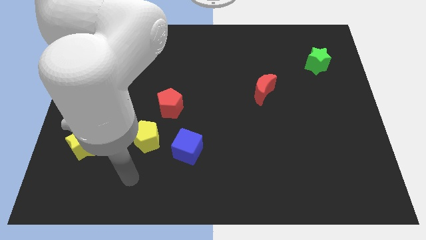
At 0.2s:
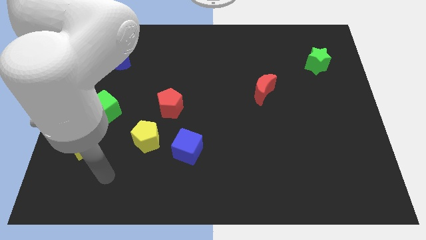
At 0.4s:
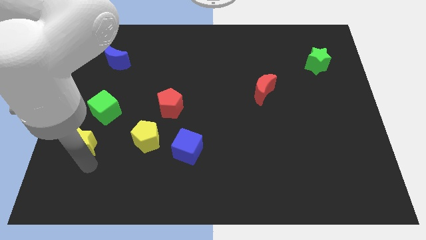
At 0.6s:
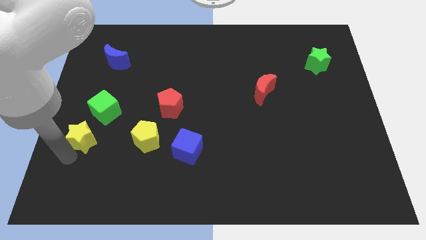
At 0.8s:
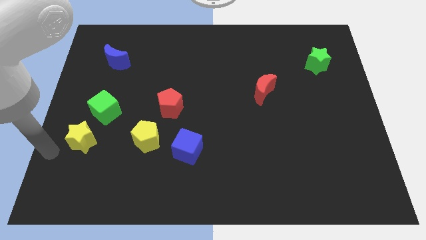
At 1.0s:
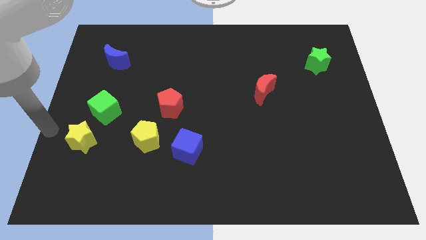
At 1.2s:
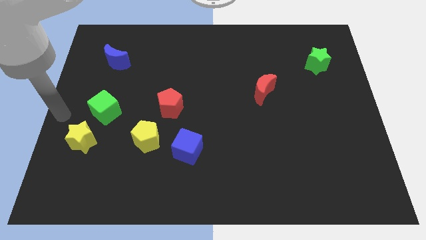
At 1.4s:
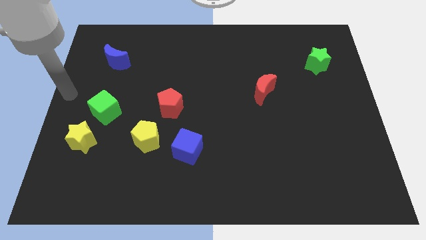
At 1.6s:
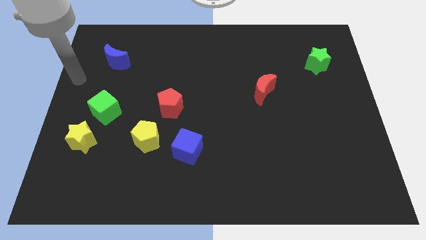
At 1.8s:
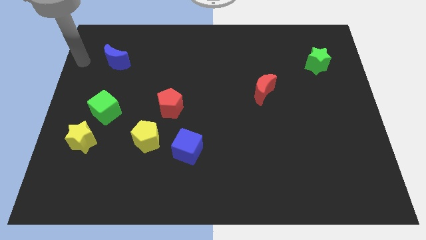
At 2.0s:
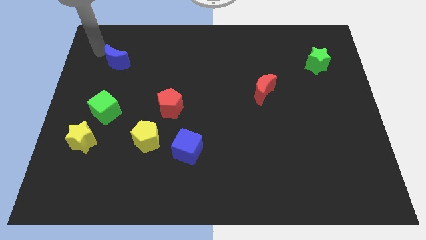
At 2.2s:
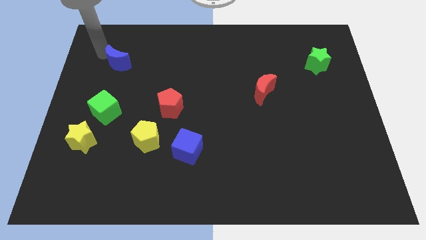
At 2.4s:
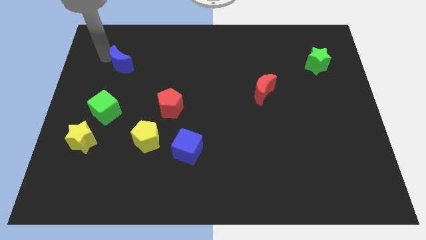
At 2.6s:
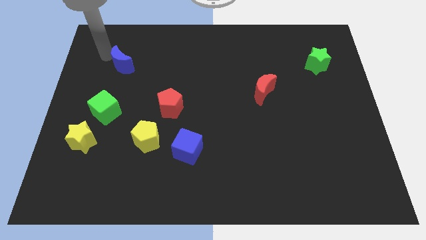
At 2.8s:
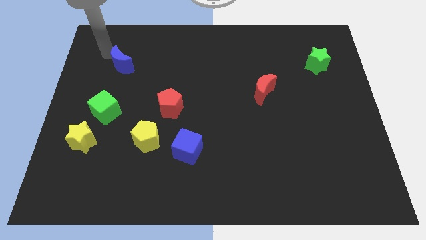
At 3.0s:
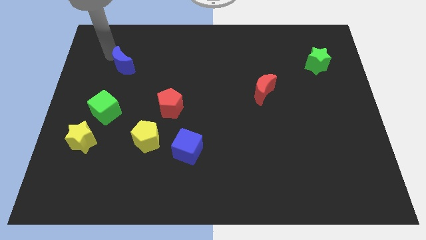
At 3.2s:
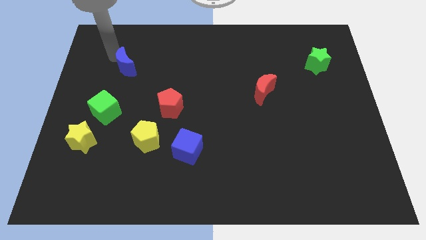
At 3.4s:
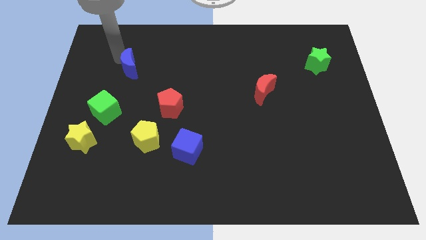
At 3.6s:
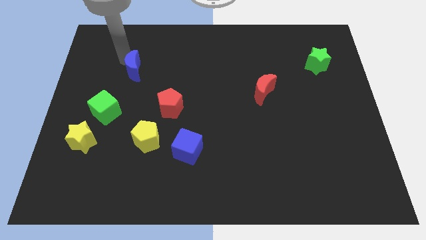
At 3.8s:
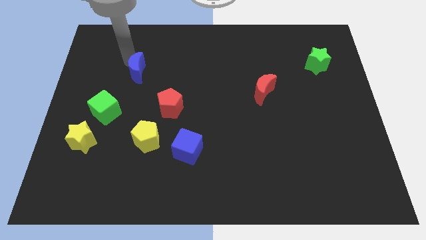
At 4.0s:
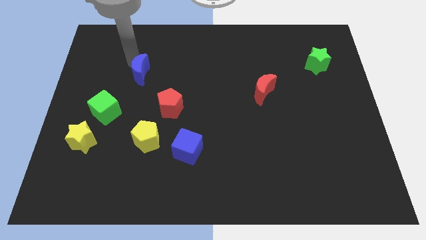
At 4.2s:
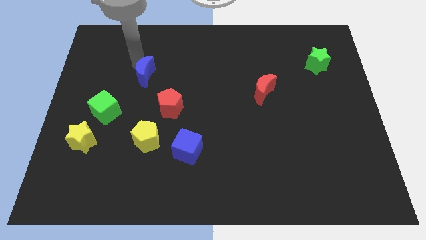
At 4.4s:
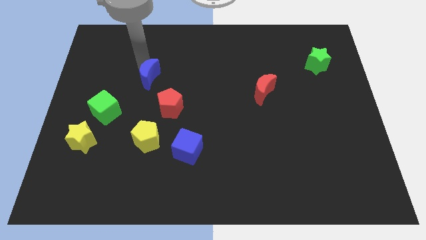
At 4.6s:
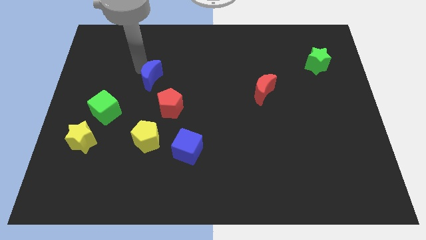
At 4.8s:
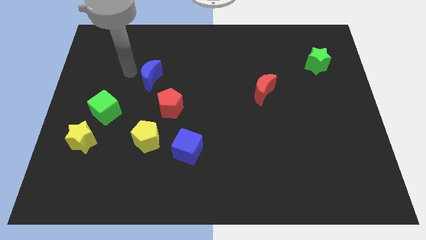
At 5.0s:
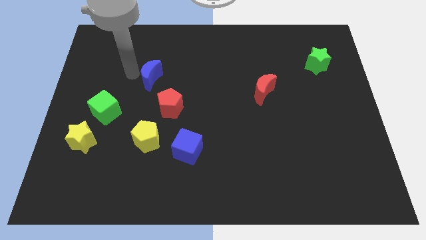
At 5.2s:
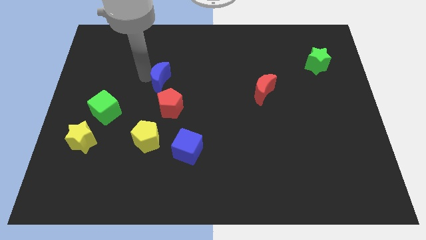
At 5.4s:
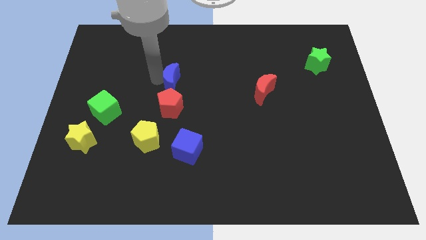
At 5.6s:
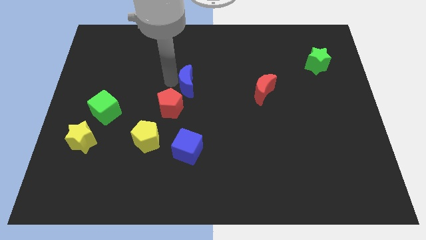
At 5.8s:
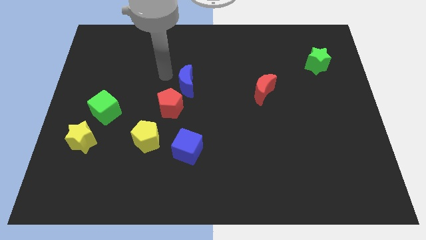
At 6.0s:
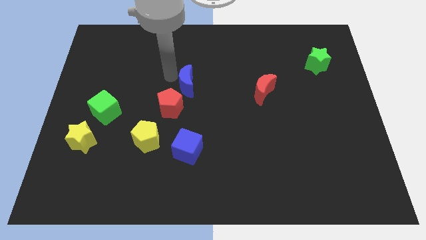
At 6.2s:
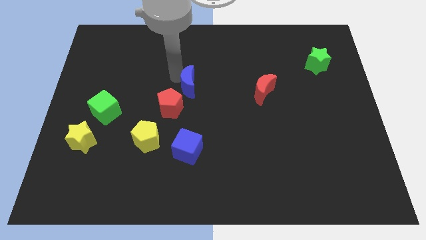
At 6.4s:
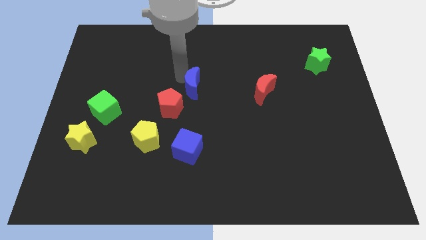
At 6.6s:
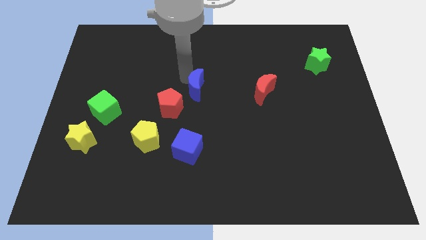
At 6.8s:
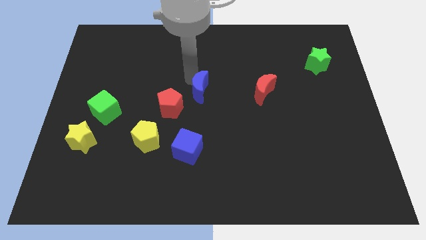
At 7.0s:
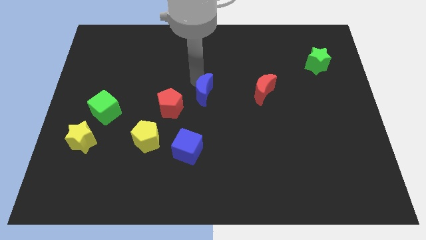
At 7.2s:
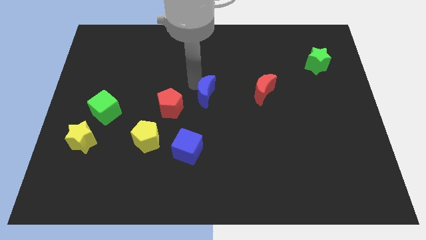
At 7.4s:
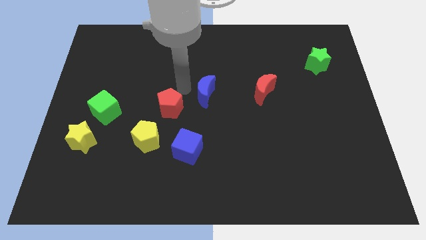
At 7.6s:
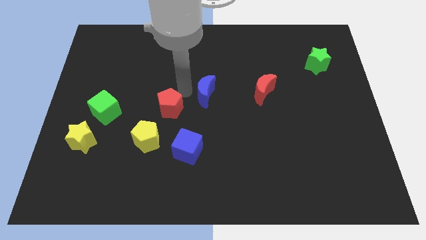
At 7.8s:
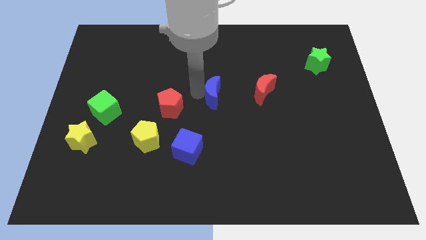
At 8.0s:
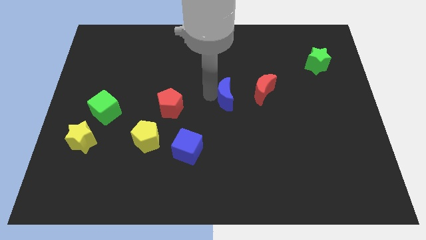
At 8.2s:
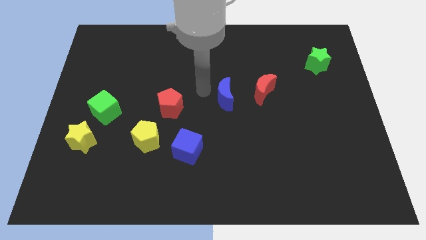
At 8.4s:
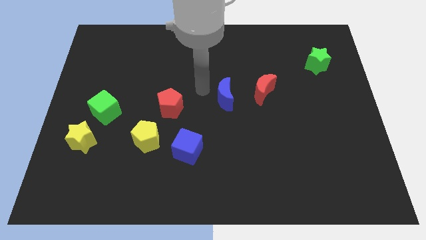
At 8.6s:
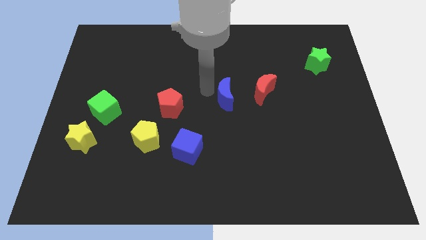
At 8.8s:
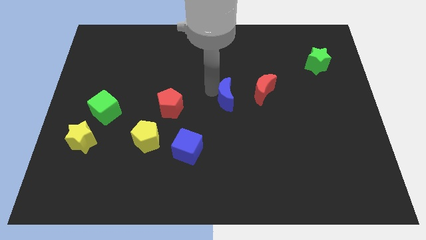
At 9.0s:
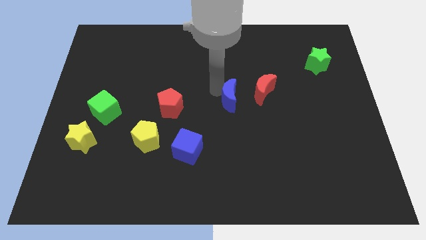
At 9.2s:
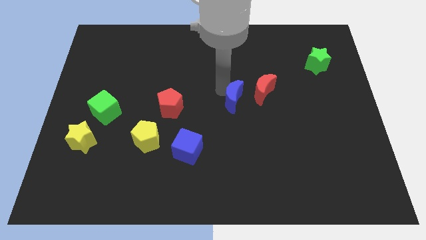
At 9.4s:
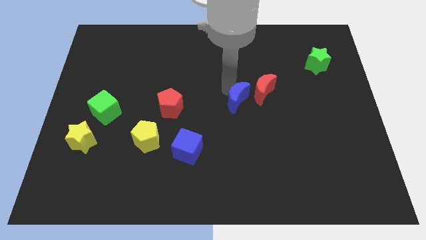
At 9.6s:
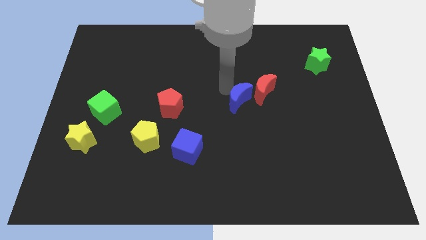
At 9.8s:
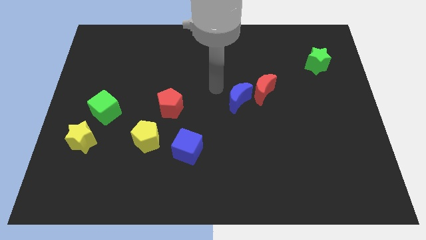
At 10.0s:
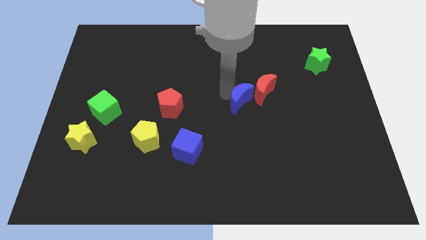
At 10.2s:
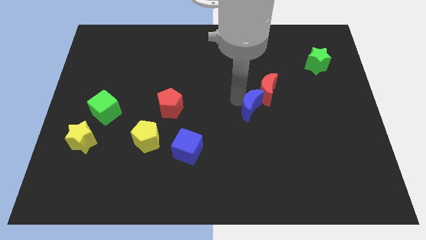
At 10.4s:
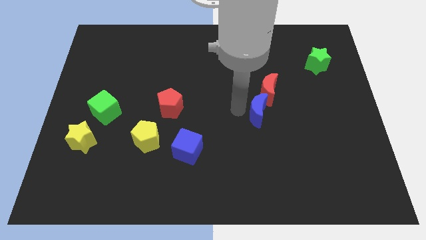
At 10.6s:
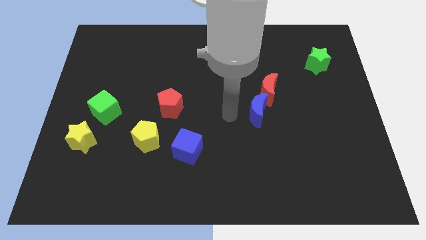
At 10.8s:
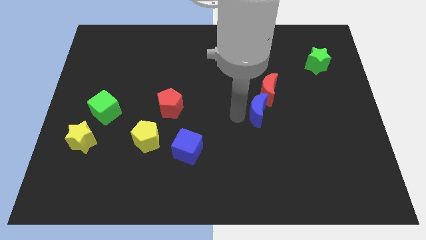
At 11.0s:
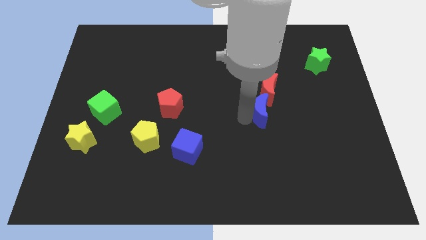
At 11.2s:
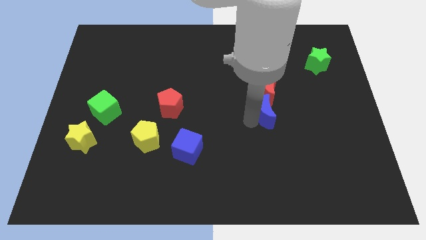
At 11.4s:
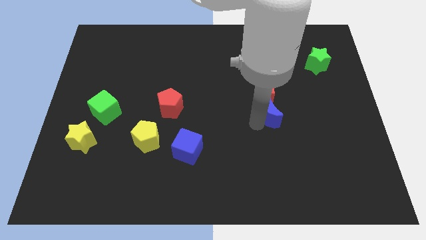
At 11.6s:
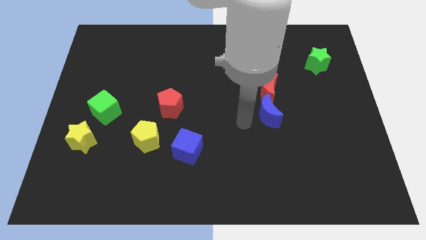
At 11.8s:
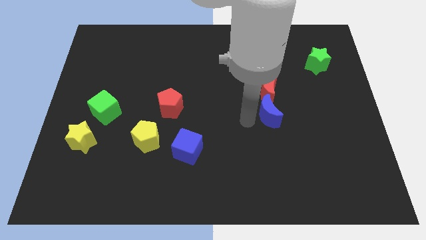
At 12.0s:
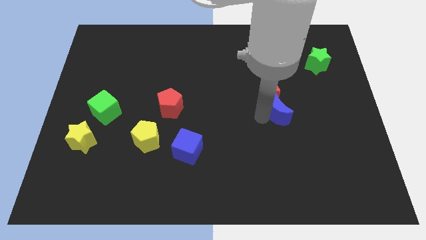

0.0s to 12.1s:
slide the blue moon to the bottom right side of the red moon

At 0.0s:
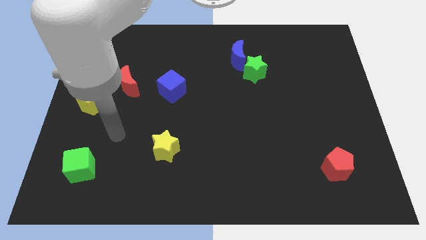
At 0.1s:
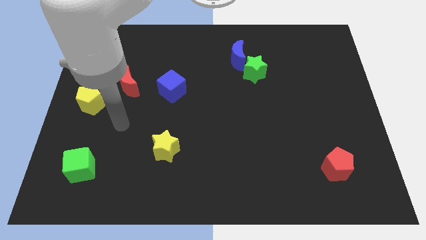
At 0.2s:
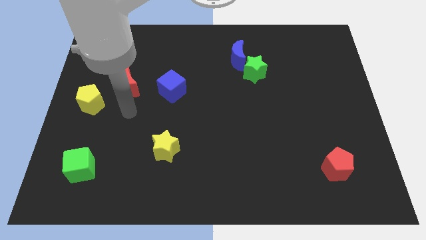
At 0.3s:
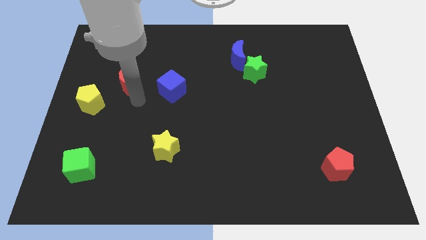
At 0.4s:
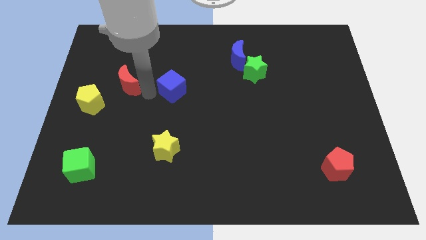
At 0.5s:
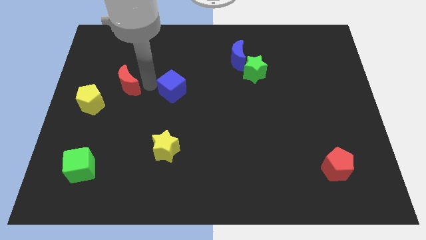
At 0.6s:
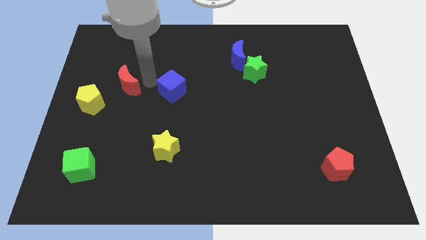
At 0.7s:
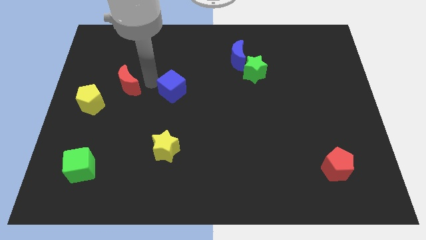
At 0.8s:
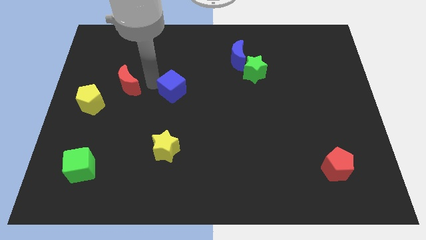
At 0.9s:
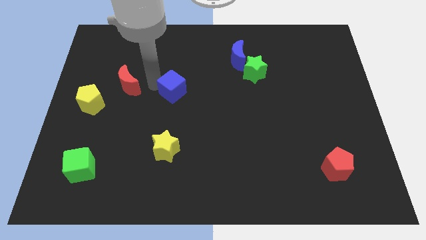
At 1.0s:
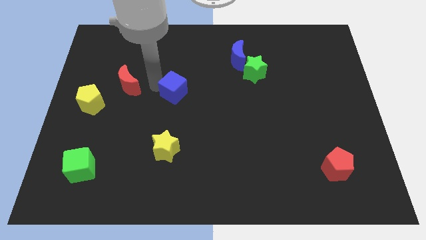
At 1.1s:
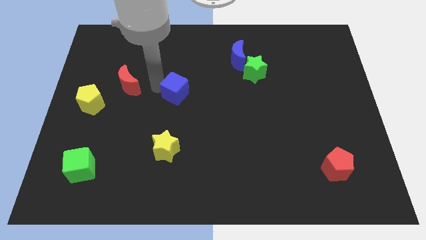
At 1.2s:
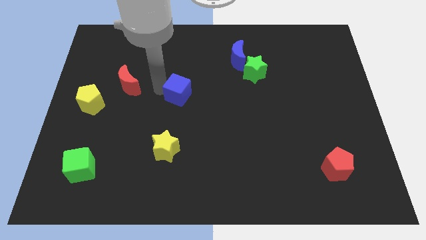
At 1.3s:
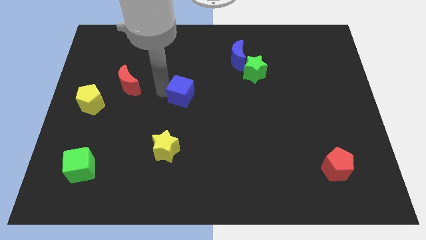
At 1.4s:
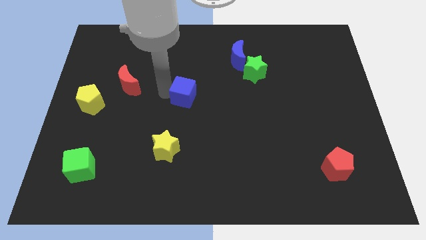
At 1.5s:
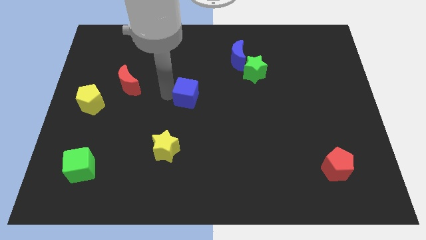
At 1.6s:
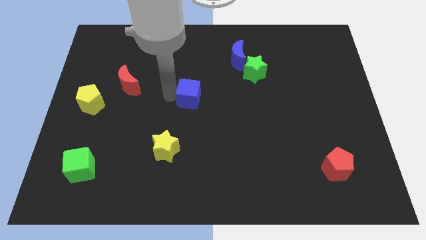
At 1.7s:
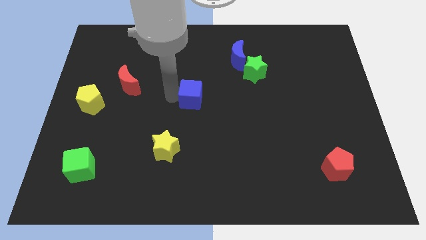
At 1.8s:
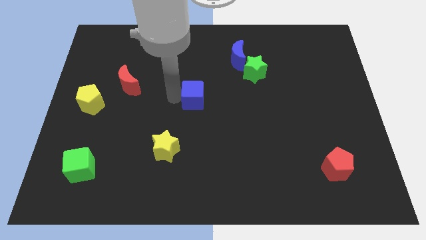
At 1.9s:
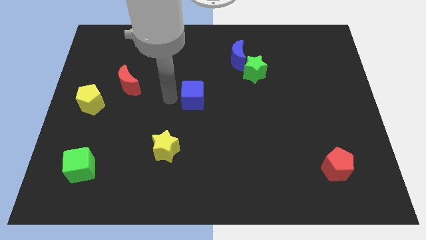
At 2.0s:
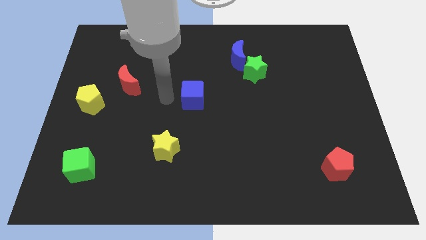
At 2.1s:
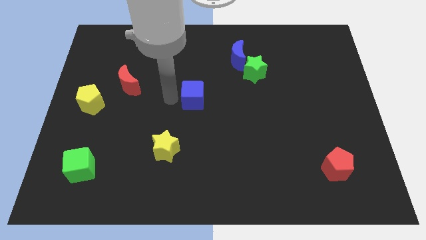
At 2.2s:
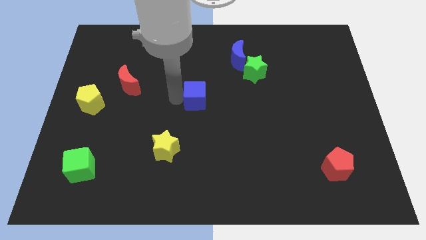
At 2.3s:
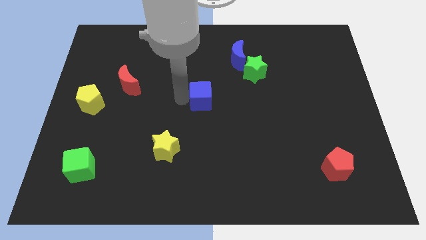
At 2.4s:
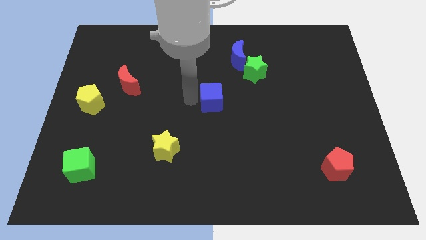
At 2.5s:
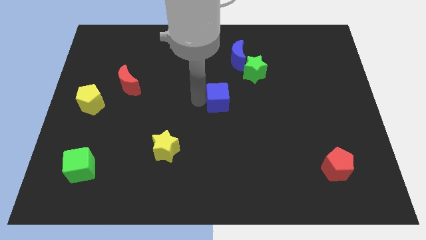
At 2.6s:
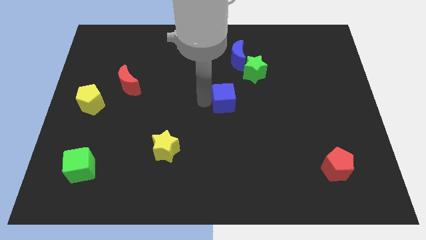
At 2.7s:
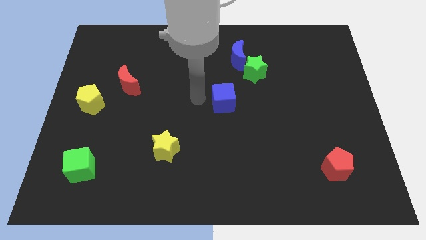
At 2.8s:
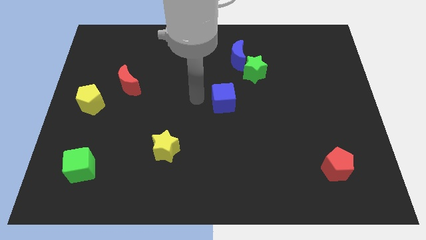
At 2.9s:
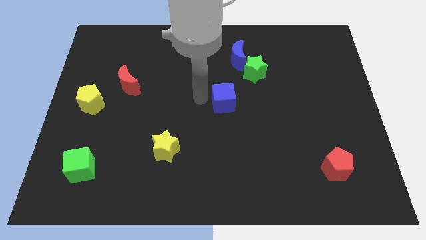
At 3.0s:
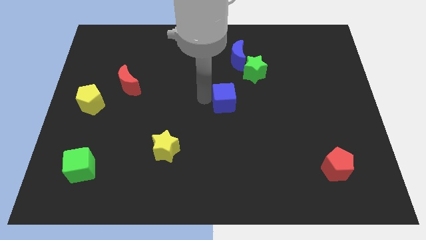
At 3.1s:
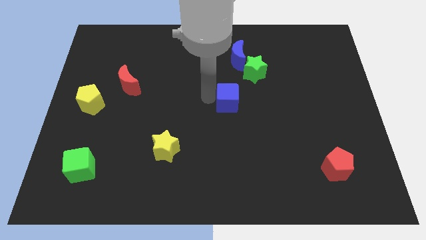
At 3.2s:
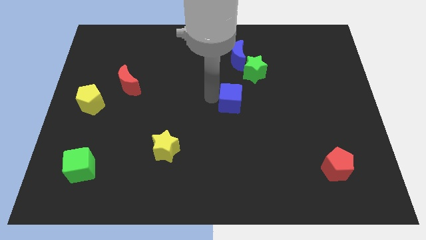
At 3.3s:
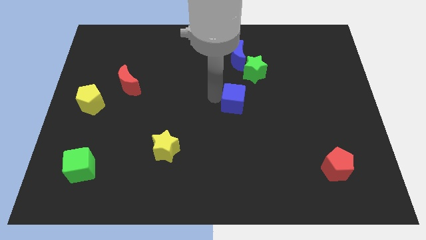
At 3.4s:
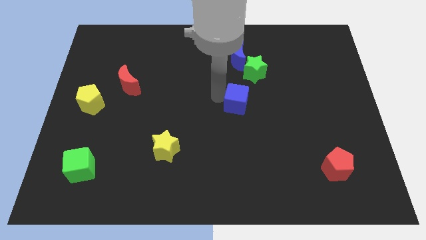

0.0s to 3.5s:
put the blue cube to the bottom side of the green star
